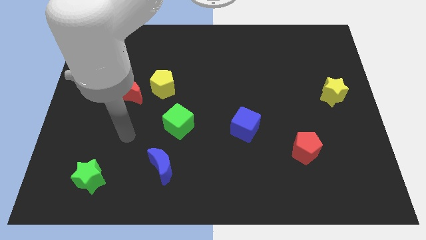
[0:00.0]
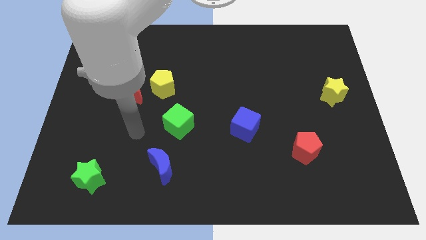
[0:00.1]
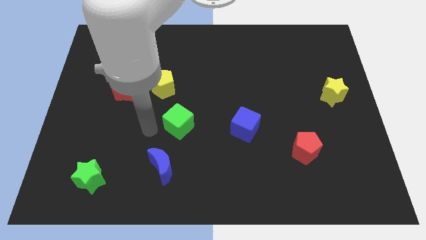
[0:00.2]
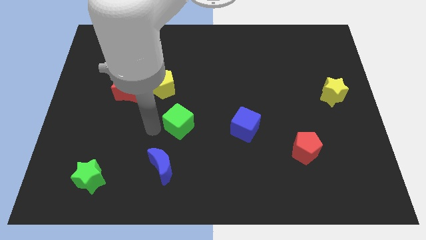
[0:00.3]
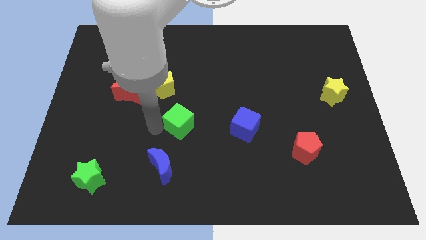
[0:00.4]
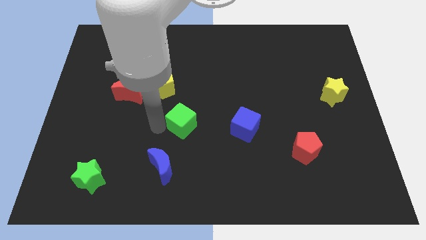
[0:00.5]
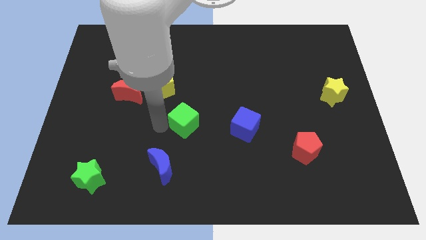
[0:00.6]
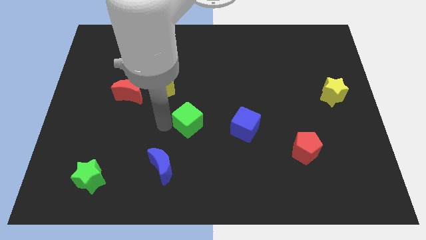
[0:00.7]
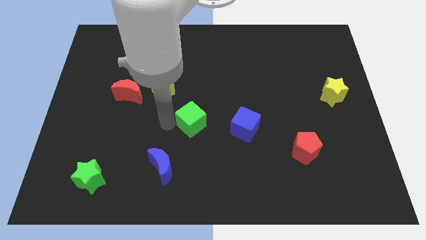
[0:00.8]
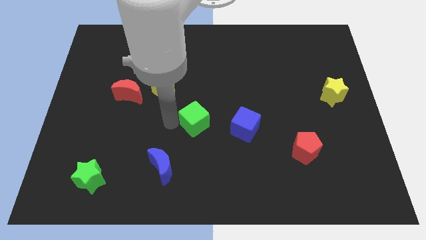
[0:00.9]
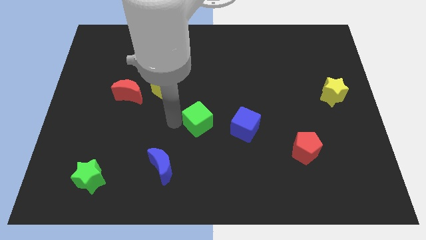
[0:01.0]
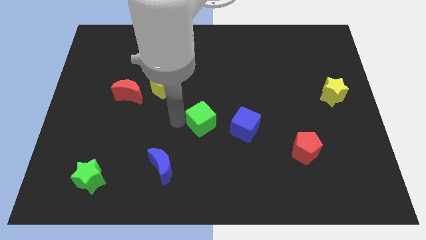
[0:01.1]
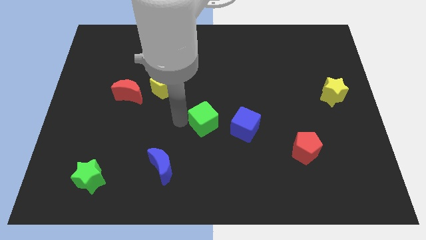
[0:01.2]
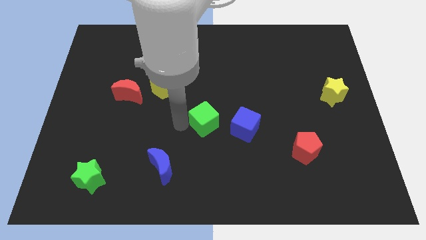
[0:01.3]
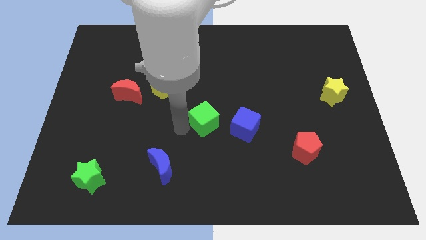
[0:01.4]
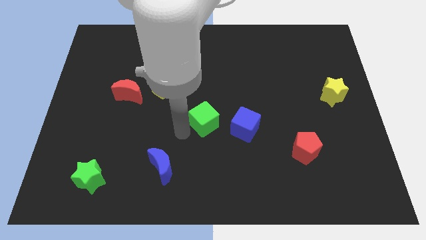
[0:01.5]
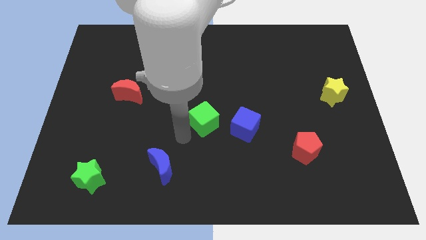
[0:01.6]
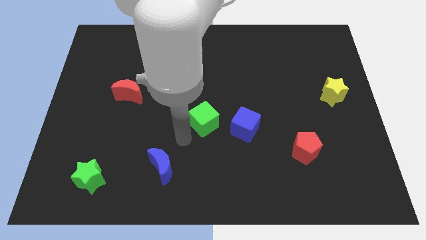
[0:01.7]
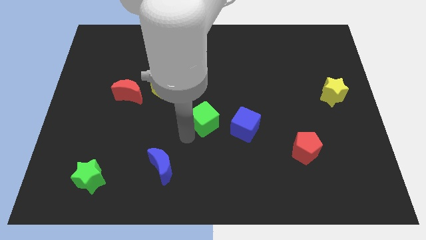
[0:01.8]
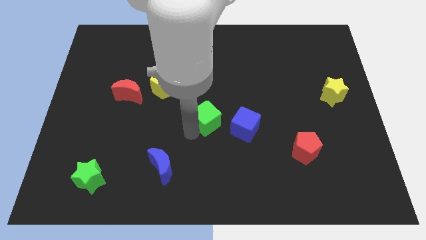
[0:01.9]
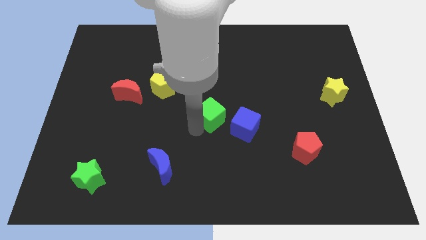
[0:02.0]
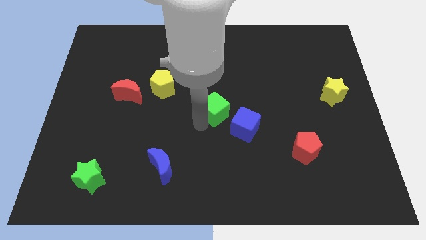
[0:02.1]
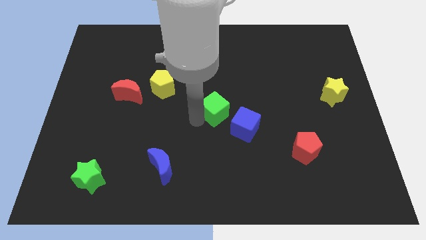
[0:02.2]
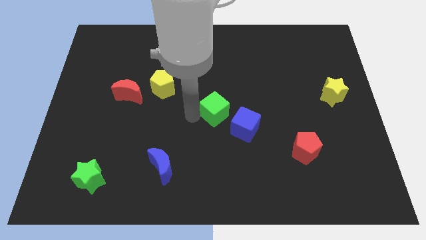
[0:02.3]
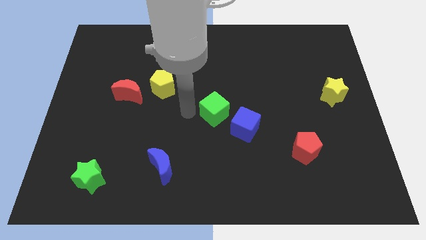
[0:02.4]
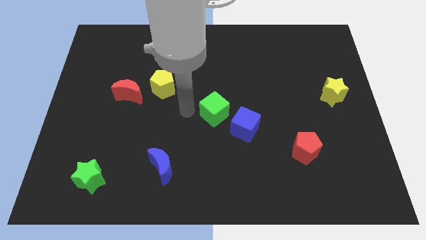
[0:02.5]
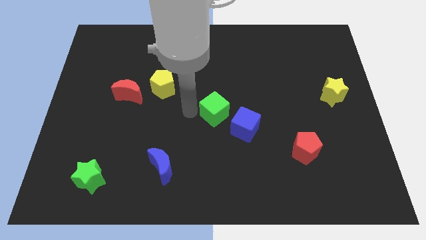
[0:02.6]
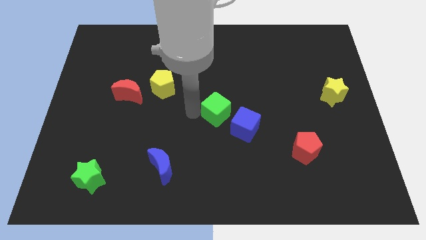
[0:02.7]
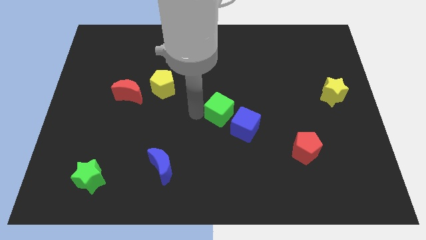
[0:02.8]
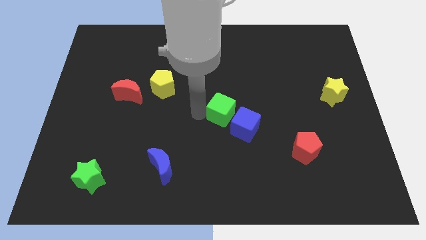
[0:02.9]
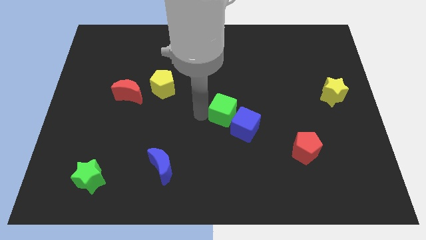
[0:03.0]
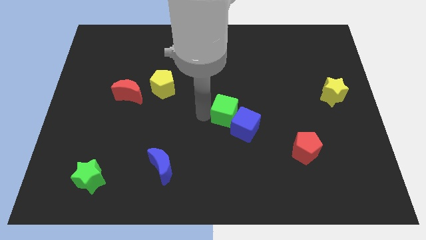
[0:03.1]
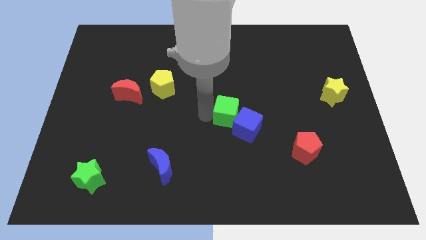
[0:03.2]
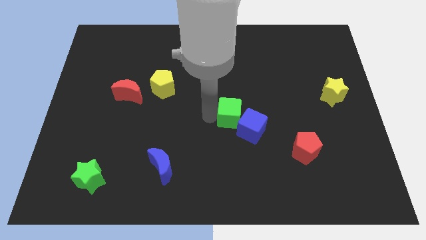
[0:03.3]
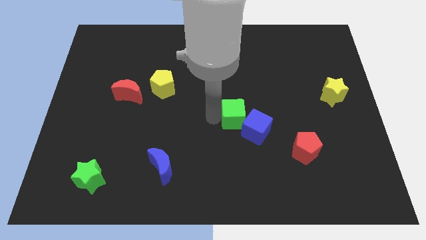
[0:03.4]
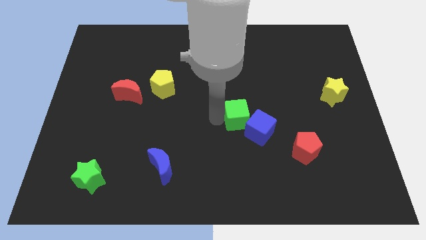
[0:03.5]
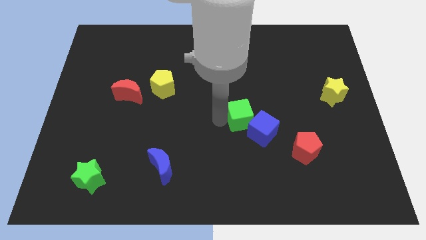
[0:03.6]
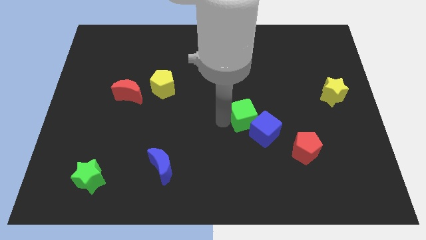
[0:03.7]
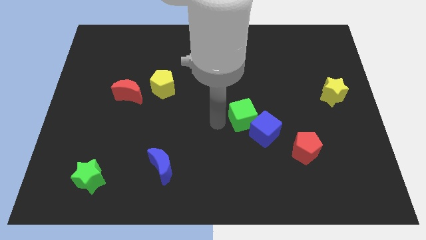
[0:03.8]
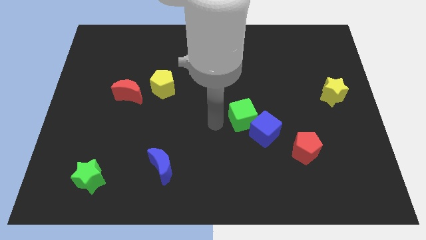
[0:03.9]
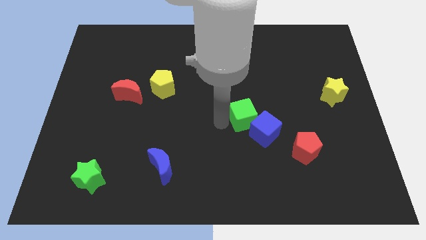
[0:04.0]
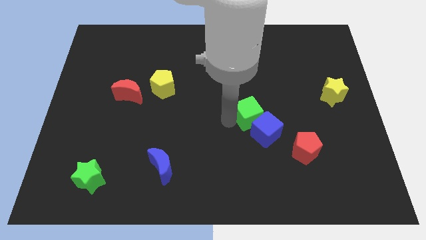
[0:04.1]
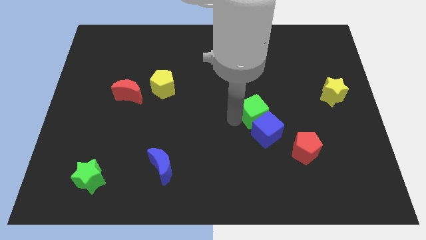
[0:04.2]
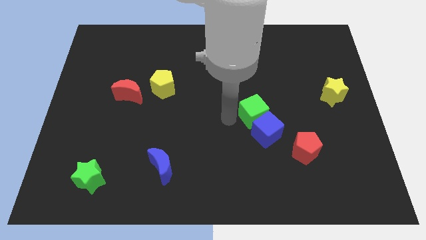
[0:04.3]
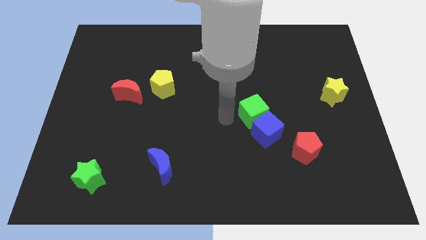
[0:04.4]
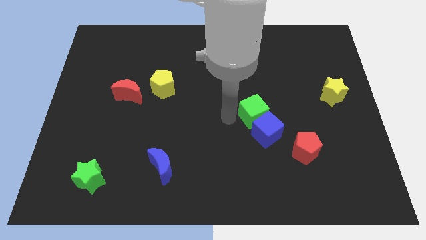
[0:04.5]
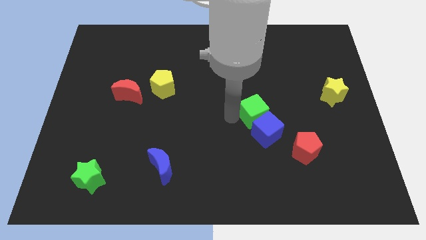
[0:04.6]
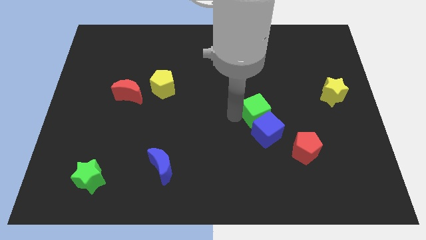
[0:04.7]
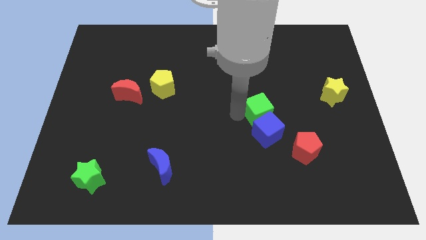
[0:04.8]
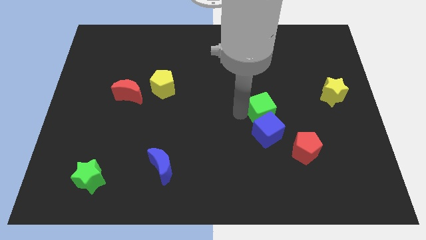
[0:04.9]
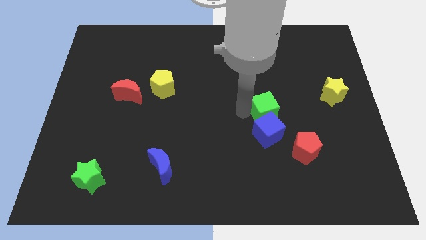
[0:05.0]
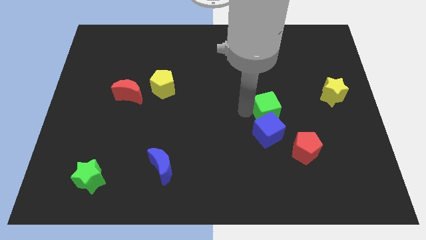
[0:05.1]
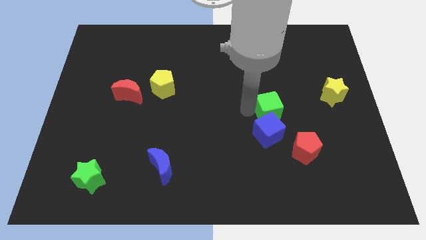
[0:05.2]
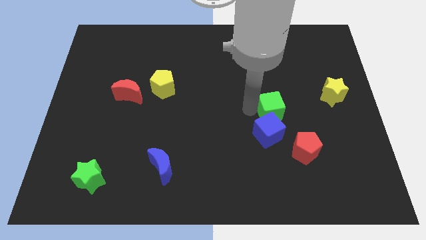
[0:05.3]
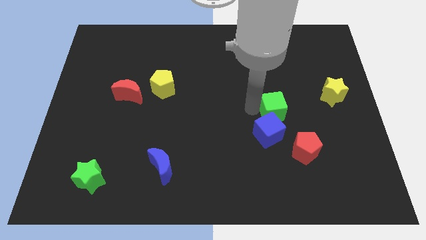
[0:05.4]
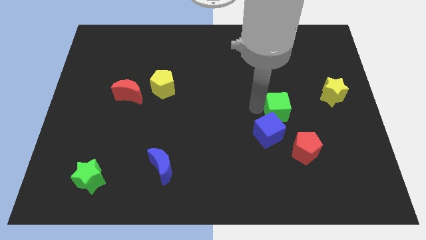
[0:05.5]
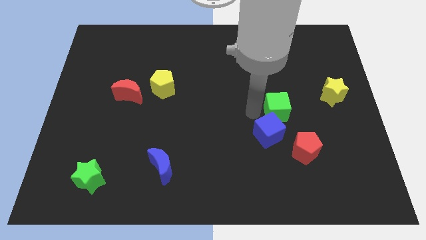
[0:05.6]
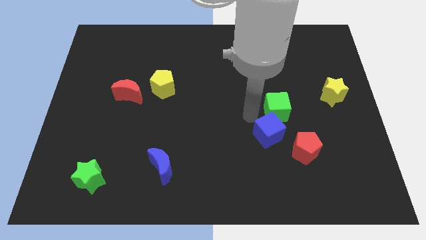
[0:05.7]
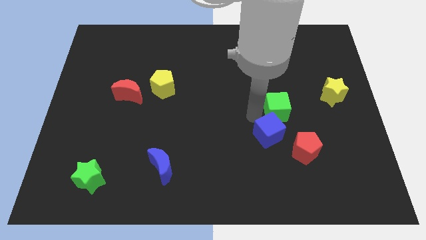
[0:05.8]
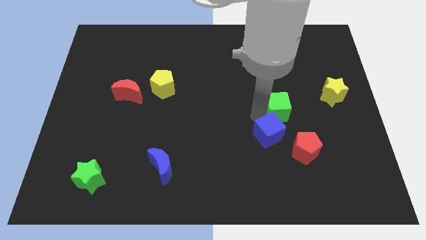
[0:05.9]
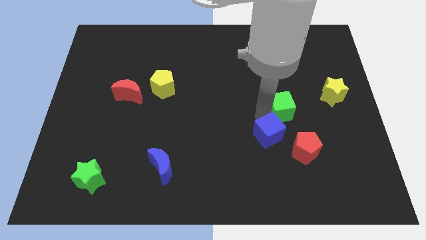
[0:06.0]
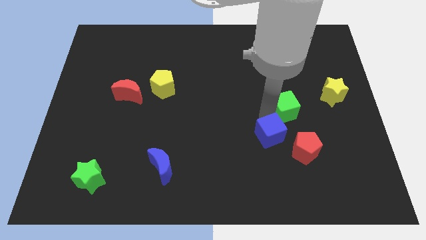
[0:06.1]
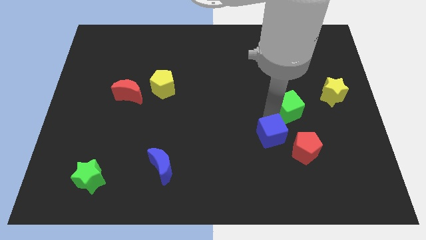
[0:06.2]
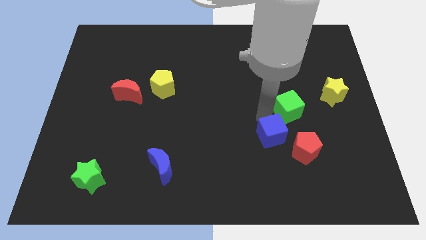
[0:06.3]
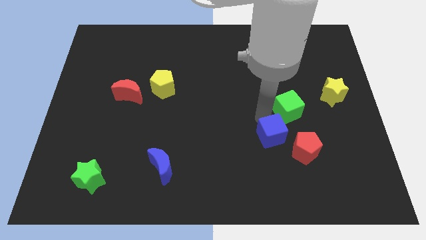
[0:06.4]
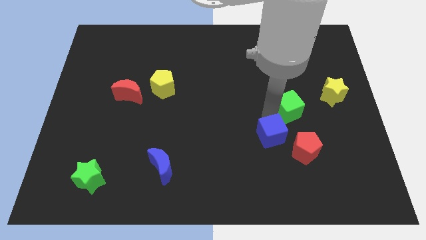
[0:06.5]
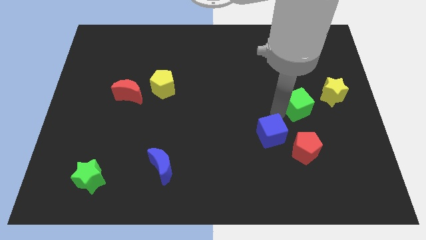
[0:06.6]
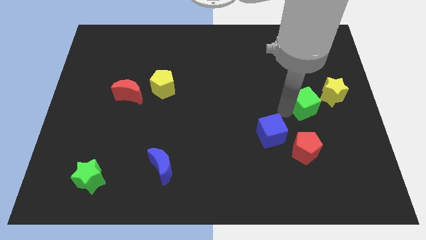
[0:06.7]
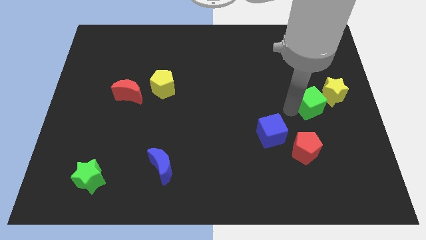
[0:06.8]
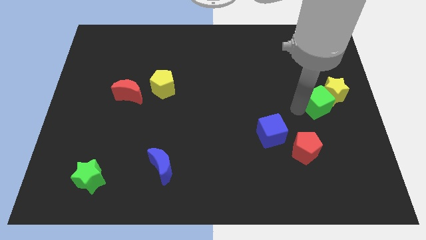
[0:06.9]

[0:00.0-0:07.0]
push the green cube next to the yellow star

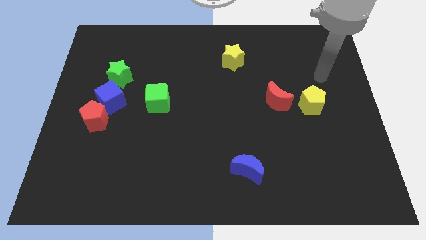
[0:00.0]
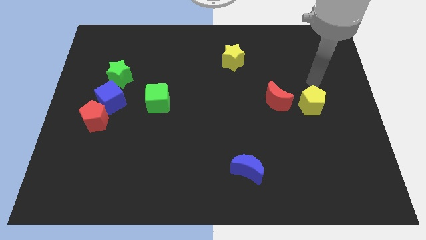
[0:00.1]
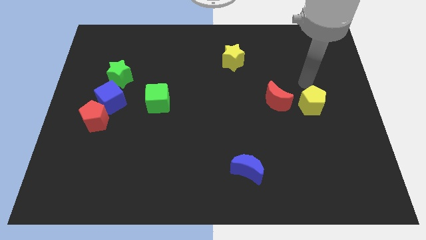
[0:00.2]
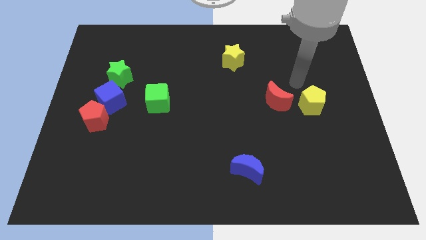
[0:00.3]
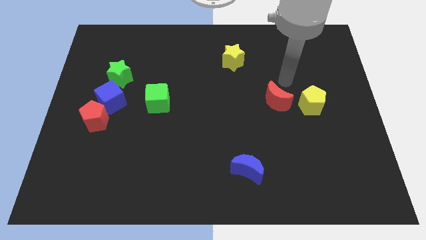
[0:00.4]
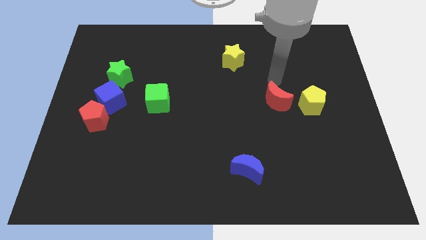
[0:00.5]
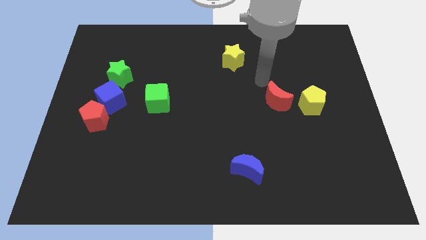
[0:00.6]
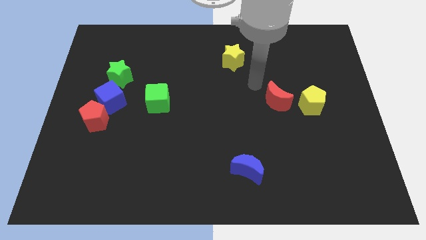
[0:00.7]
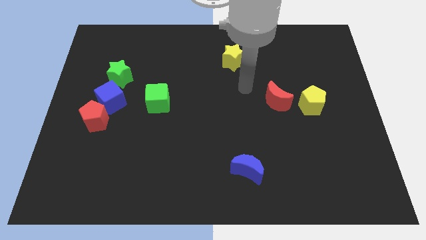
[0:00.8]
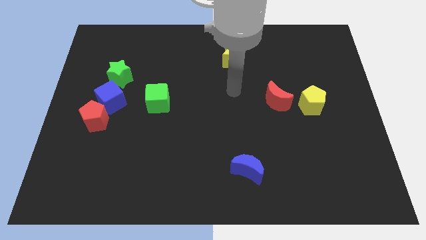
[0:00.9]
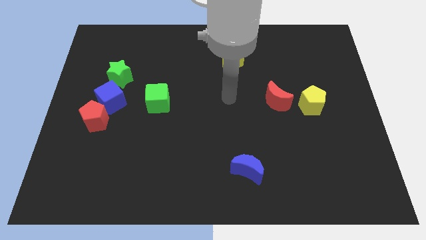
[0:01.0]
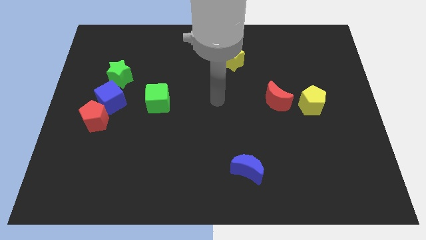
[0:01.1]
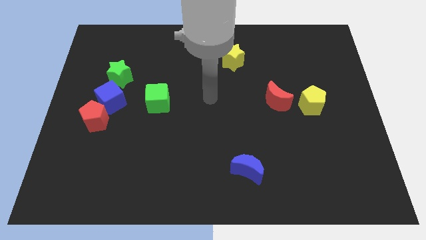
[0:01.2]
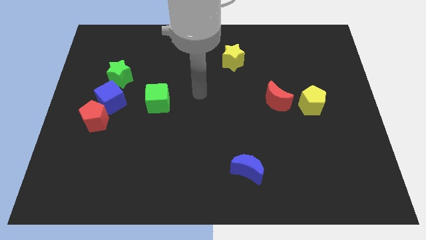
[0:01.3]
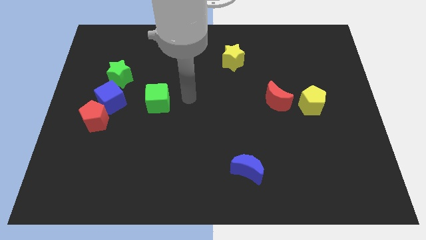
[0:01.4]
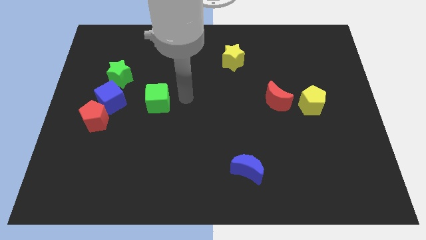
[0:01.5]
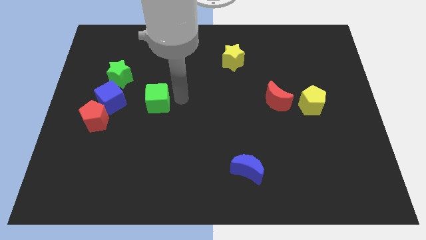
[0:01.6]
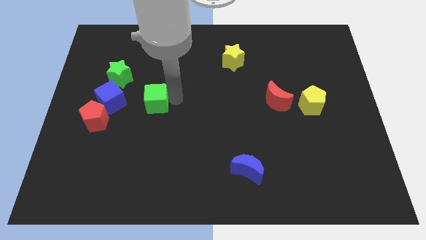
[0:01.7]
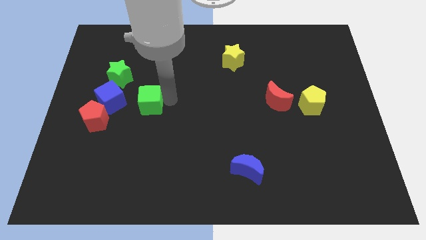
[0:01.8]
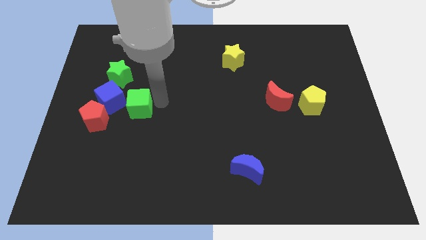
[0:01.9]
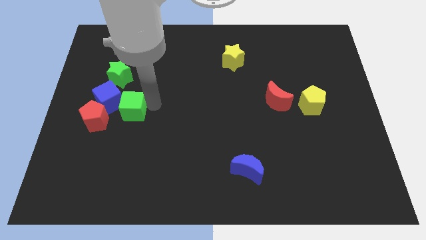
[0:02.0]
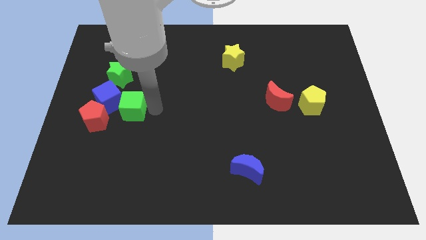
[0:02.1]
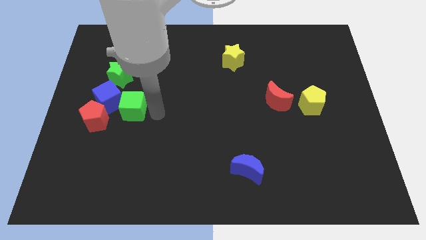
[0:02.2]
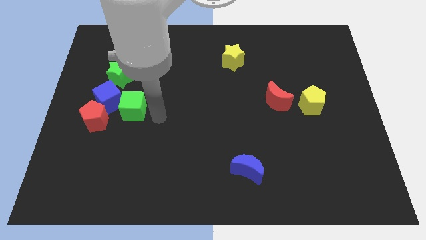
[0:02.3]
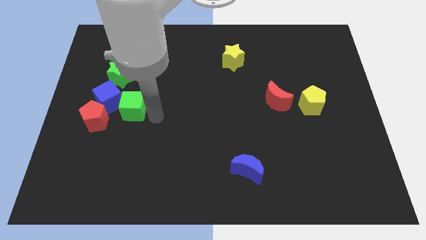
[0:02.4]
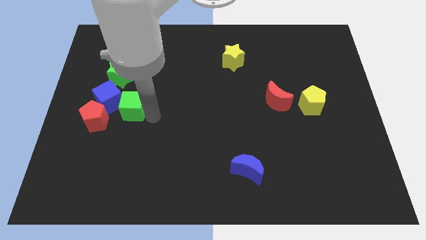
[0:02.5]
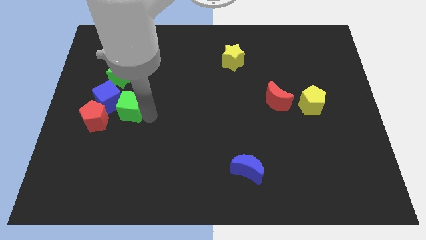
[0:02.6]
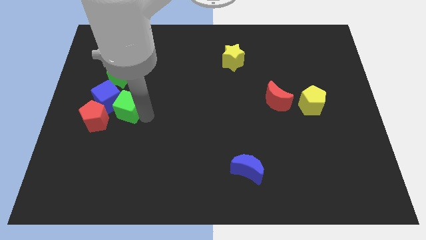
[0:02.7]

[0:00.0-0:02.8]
slide the green cube close to the blue cube
